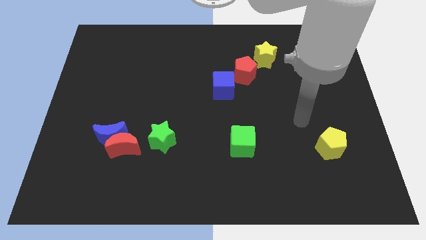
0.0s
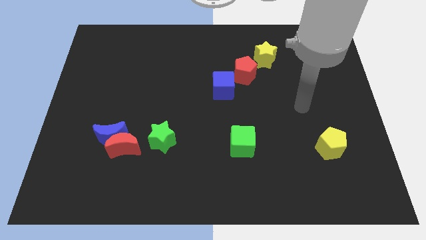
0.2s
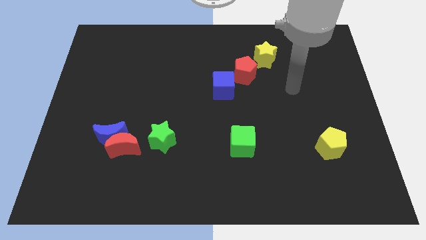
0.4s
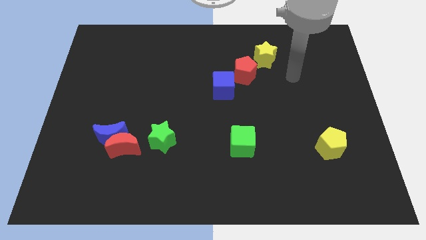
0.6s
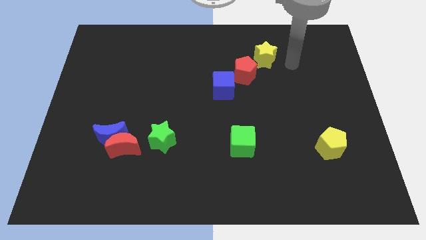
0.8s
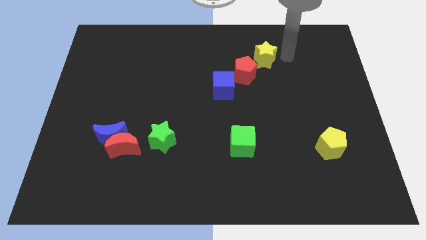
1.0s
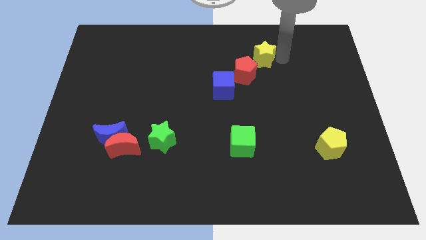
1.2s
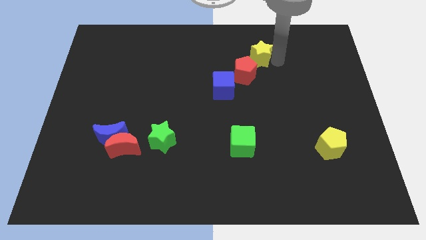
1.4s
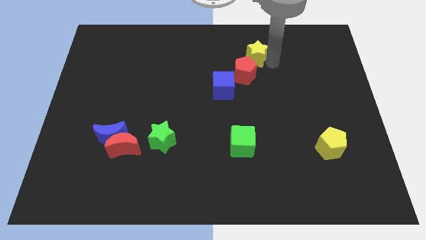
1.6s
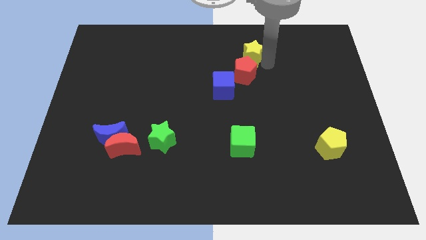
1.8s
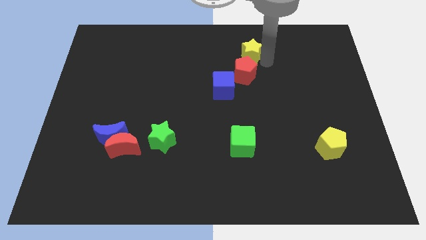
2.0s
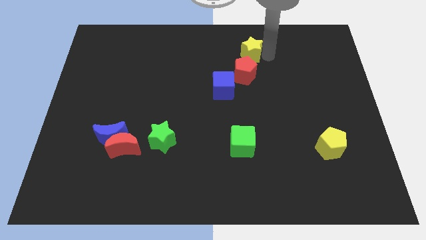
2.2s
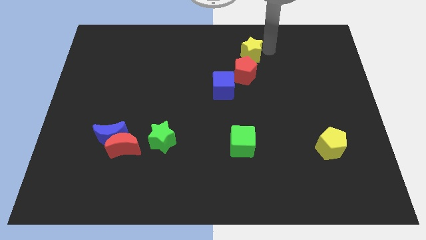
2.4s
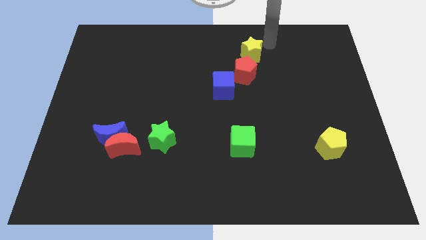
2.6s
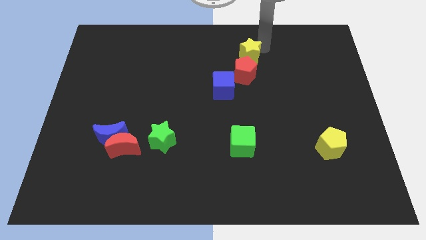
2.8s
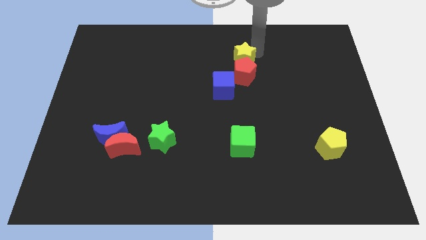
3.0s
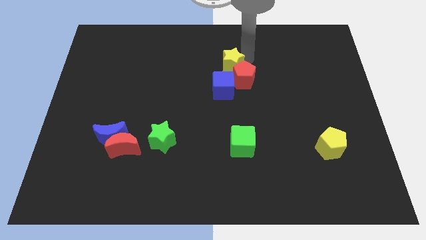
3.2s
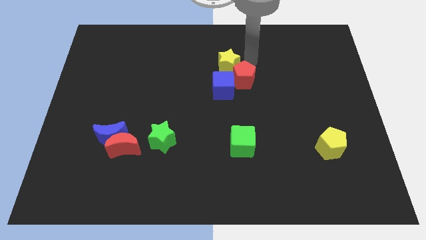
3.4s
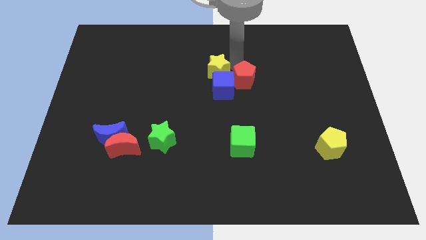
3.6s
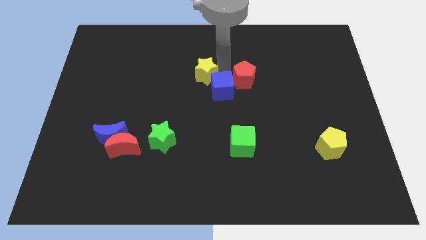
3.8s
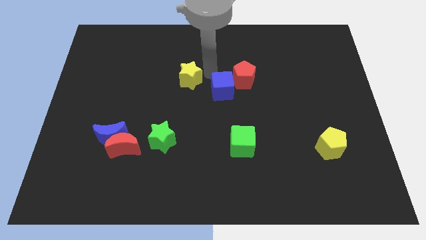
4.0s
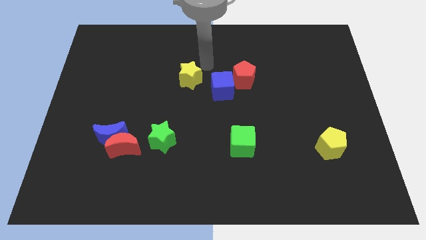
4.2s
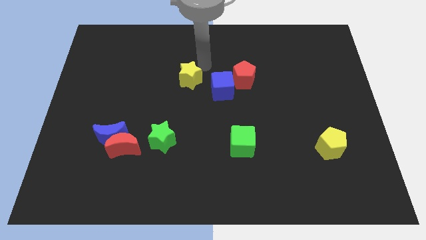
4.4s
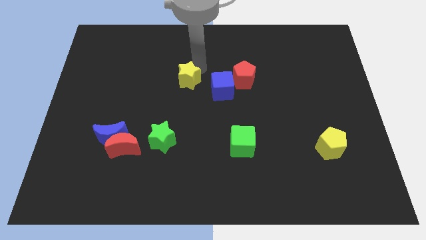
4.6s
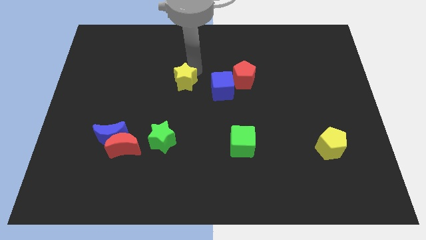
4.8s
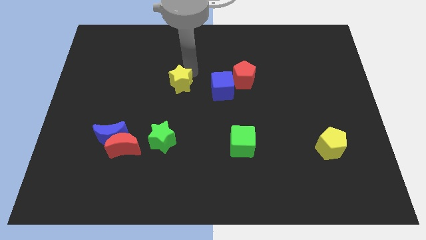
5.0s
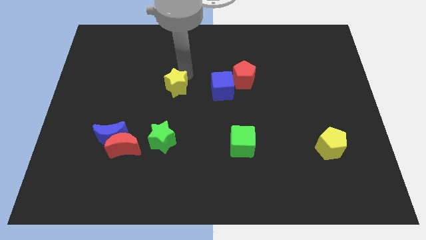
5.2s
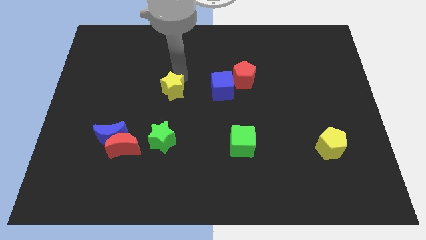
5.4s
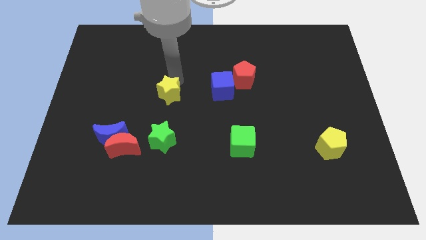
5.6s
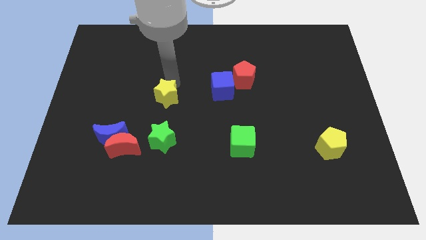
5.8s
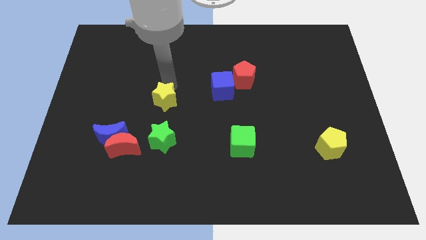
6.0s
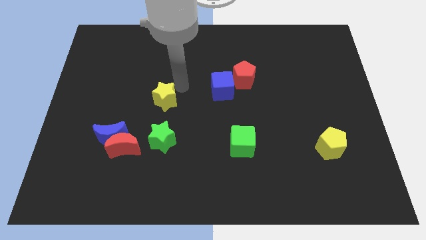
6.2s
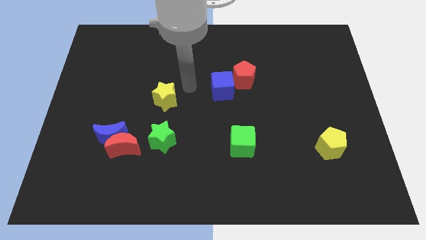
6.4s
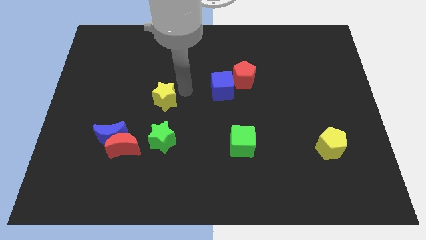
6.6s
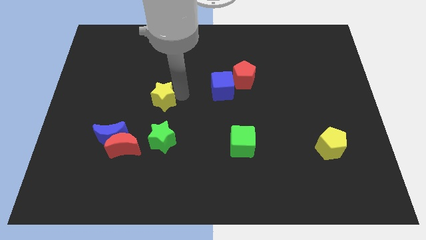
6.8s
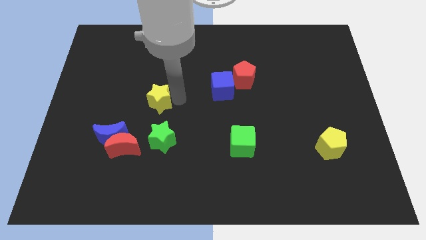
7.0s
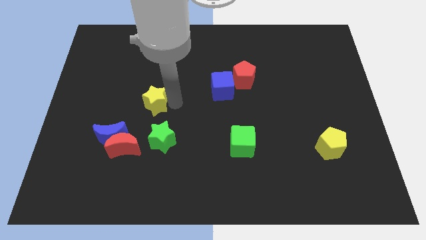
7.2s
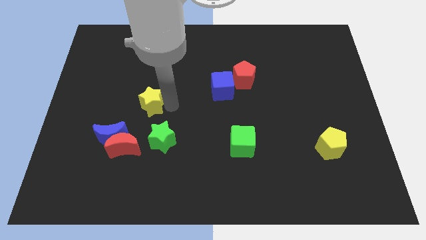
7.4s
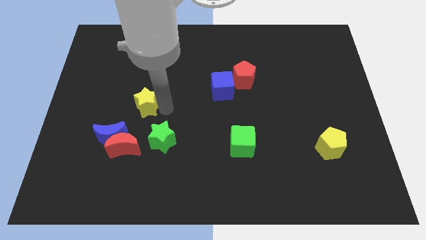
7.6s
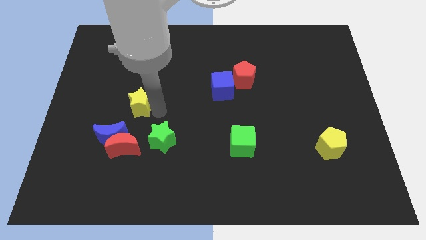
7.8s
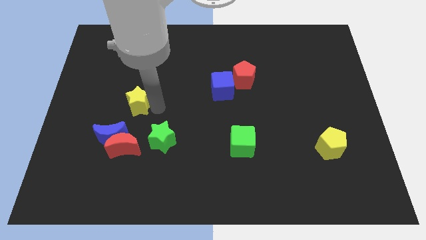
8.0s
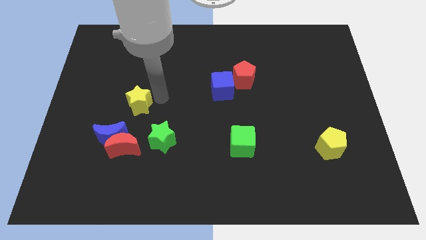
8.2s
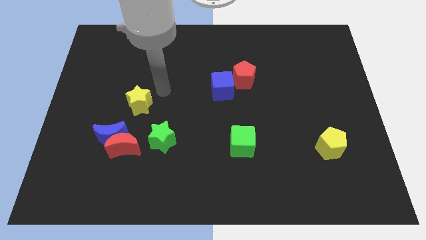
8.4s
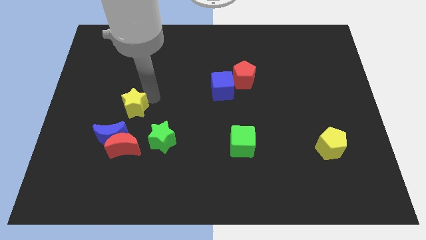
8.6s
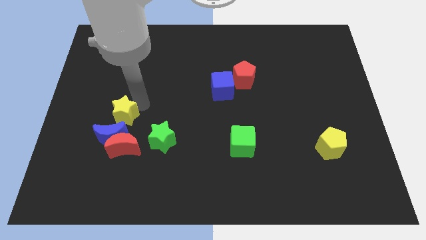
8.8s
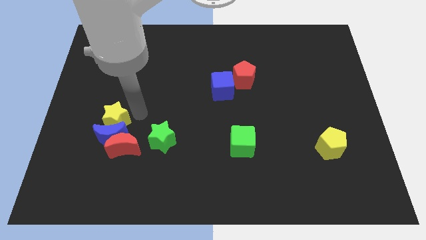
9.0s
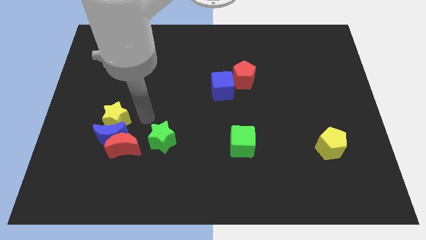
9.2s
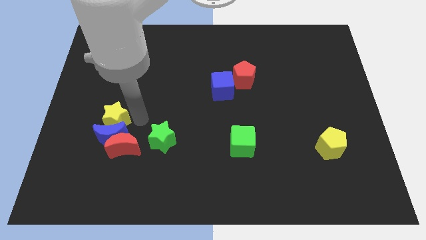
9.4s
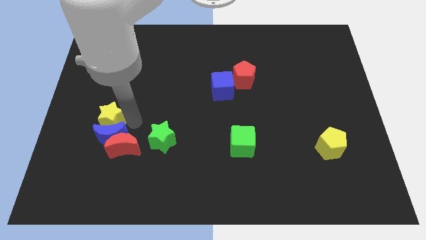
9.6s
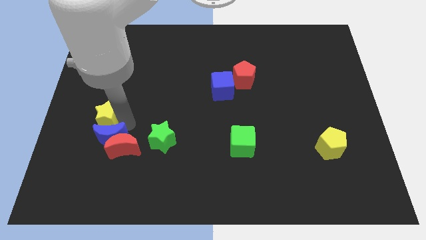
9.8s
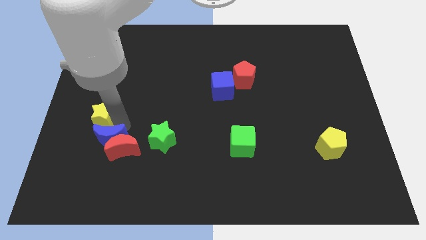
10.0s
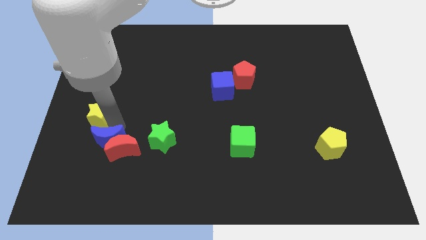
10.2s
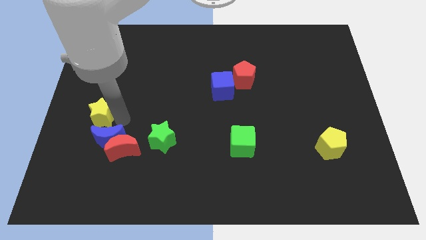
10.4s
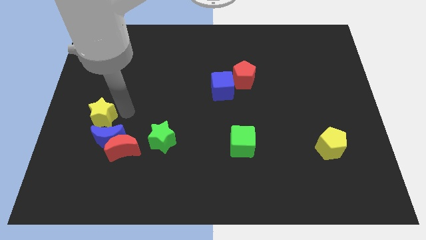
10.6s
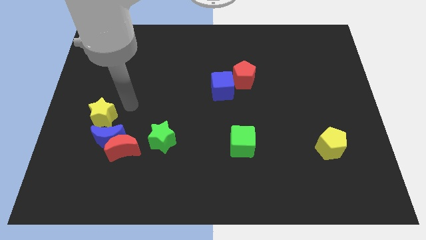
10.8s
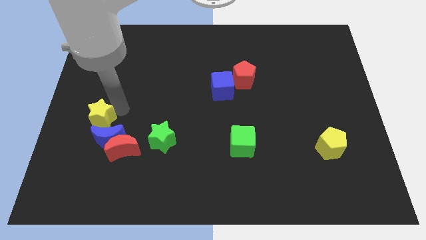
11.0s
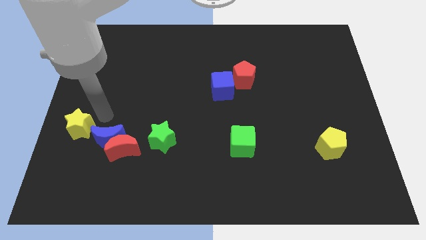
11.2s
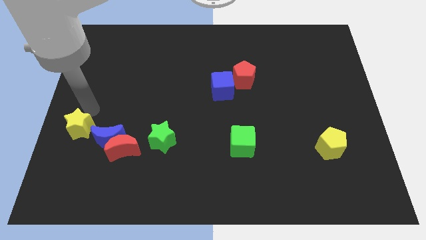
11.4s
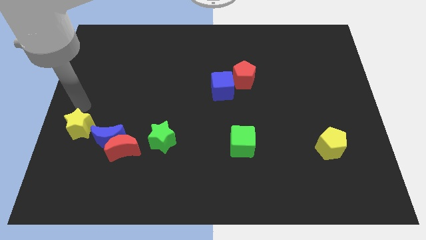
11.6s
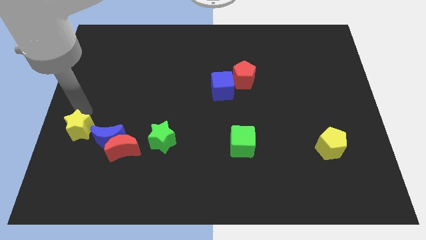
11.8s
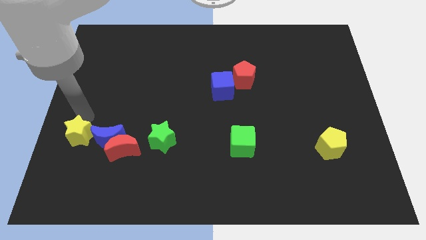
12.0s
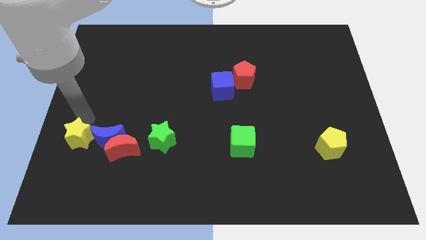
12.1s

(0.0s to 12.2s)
push the yellow star to the bottom left of the blue moon

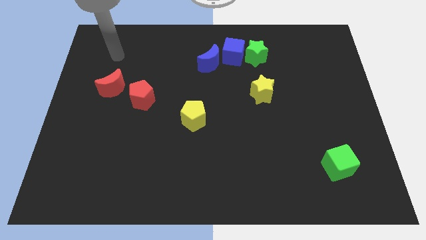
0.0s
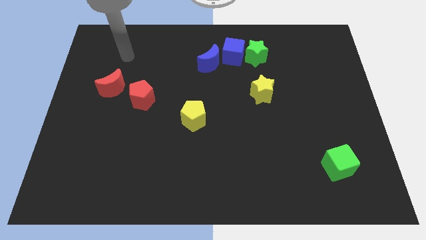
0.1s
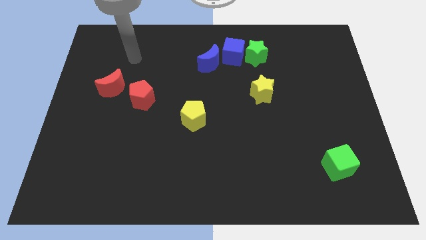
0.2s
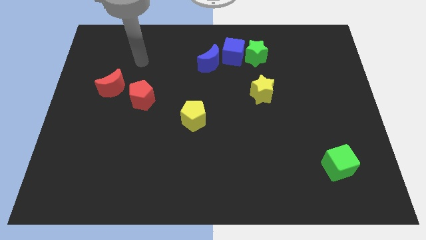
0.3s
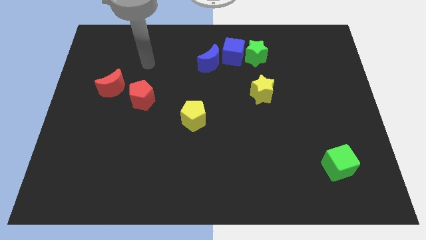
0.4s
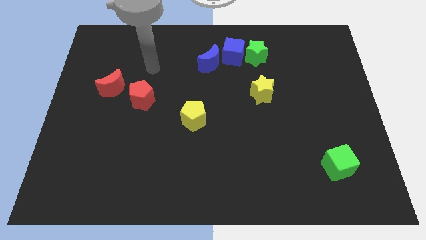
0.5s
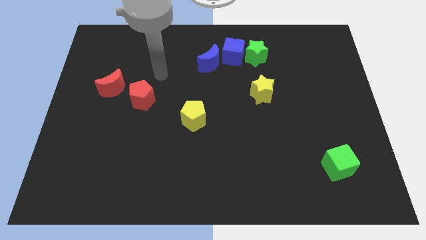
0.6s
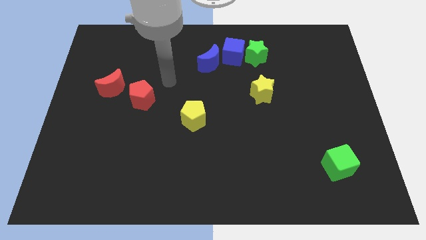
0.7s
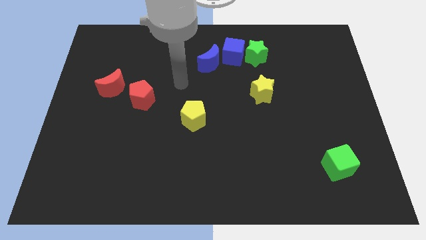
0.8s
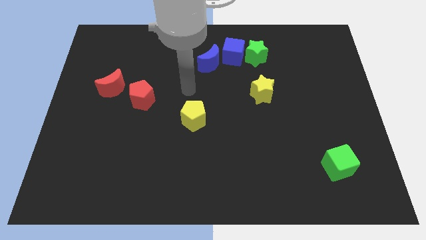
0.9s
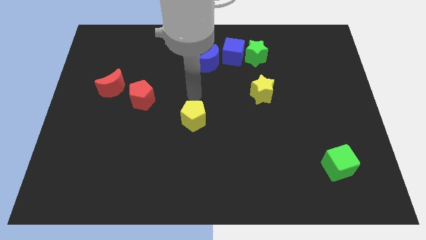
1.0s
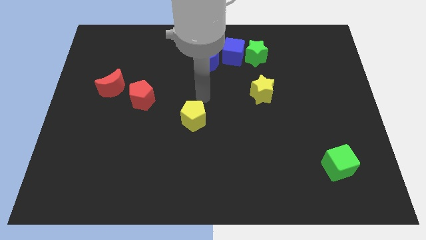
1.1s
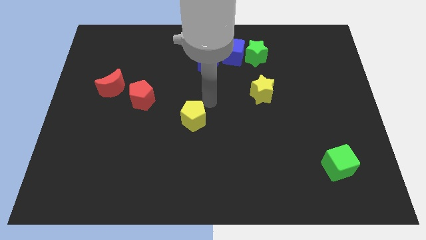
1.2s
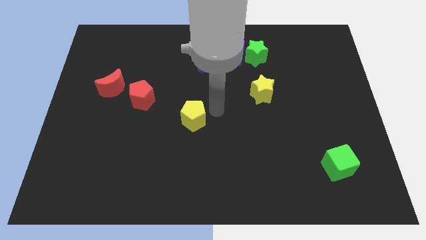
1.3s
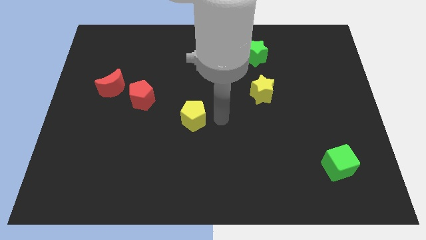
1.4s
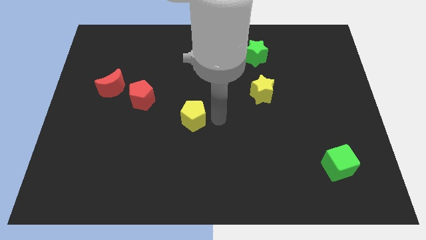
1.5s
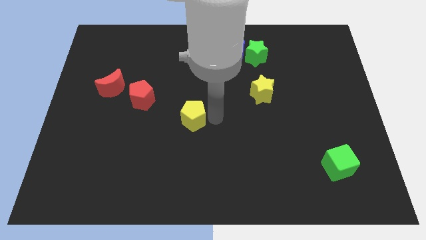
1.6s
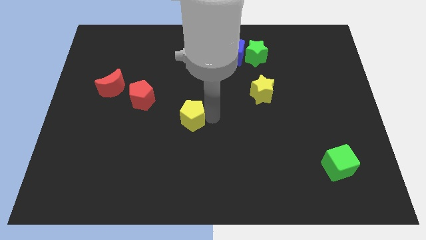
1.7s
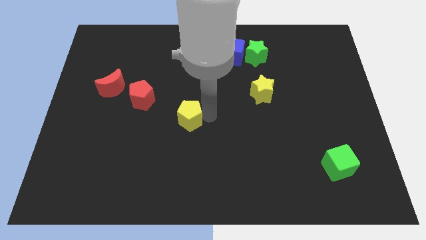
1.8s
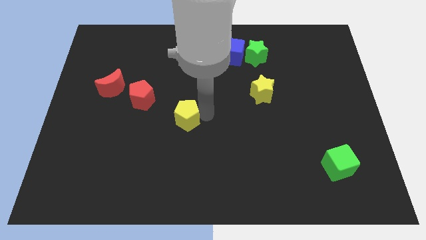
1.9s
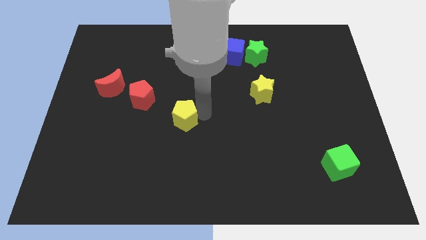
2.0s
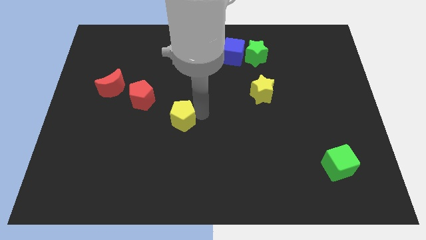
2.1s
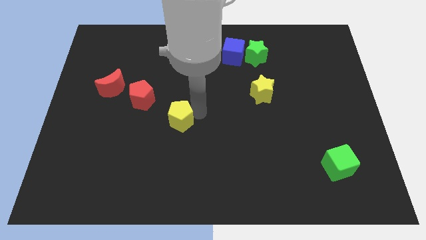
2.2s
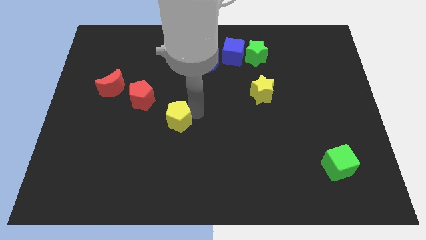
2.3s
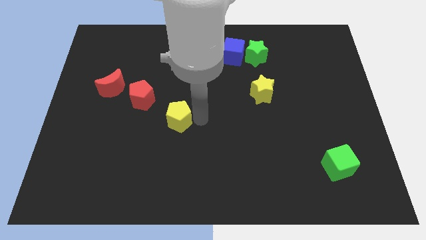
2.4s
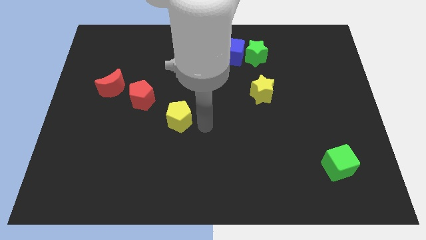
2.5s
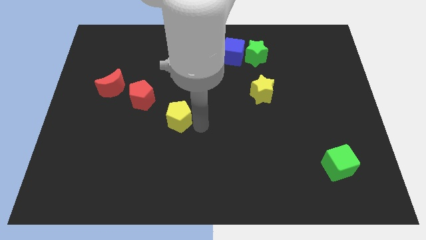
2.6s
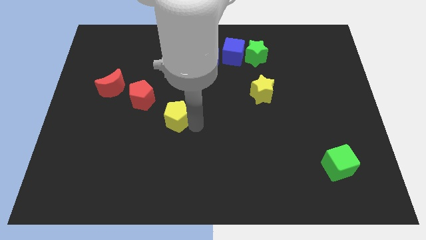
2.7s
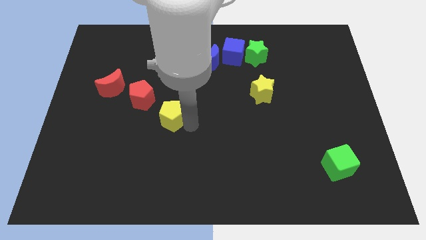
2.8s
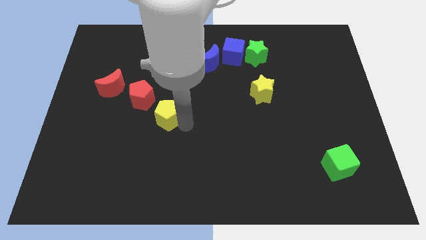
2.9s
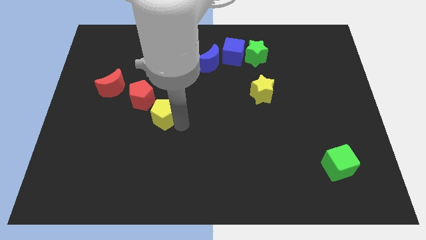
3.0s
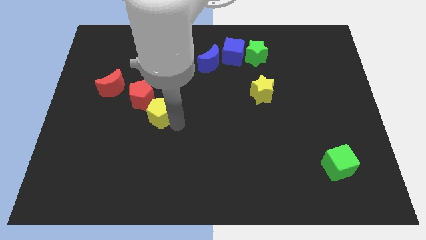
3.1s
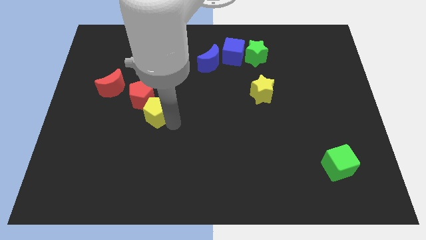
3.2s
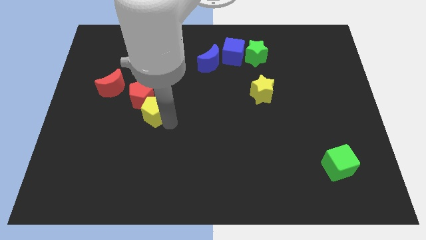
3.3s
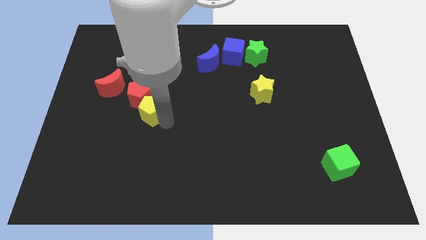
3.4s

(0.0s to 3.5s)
slide the yellow pentagon diagonally down and to the right of the red moon
